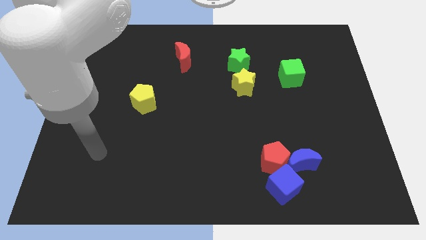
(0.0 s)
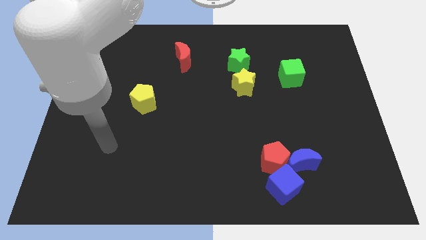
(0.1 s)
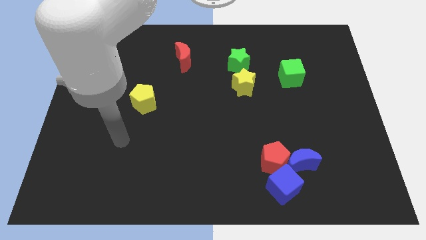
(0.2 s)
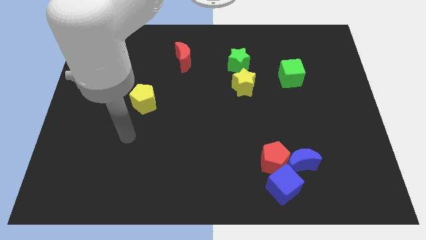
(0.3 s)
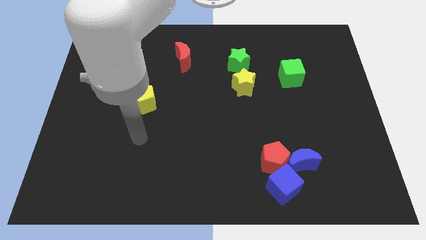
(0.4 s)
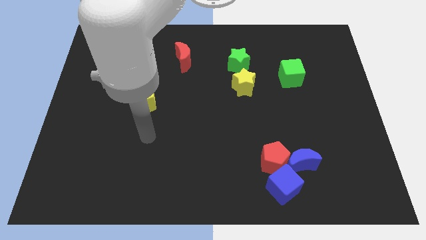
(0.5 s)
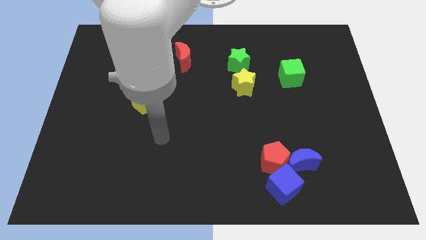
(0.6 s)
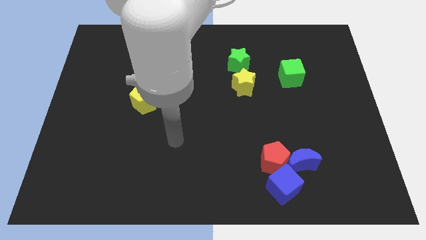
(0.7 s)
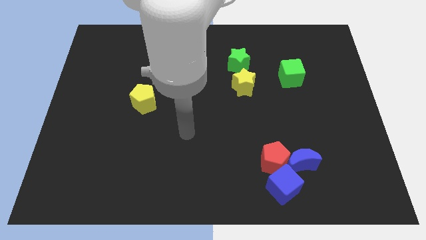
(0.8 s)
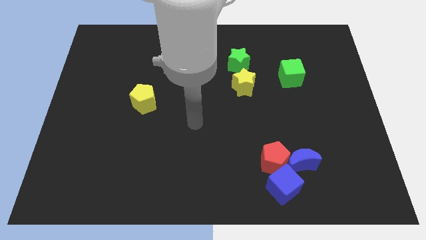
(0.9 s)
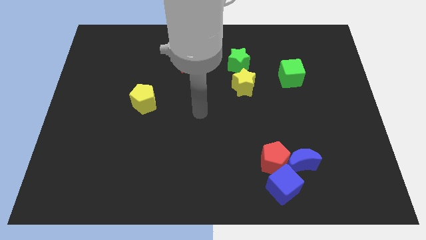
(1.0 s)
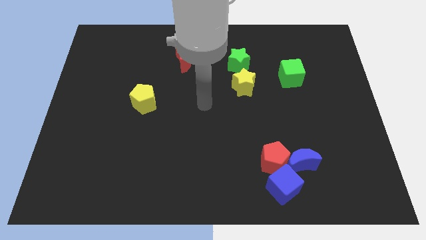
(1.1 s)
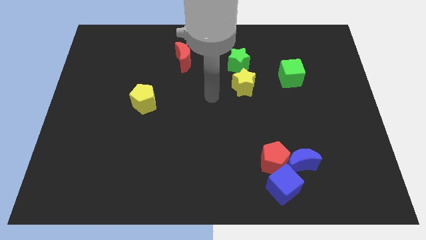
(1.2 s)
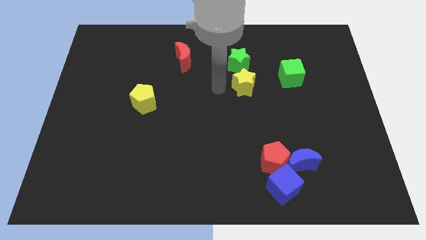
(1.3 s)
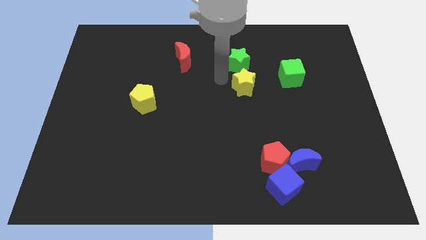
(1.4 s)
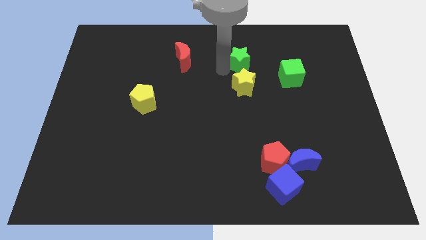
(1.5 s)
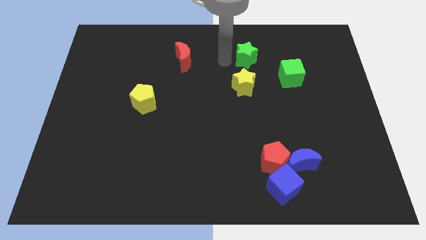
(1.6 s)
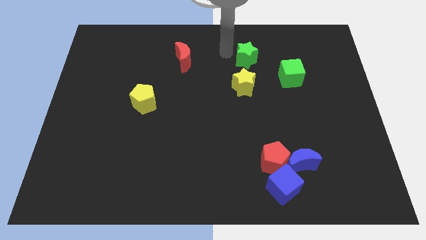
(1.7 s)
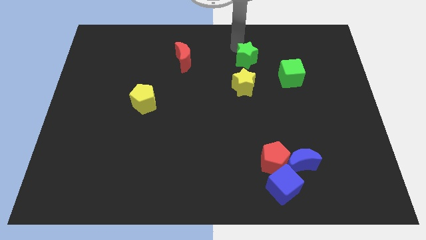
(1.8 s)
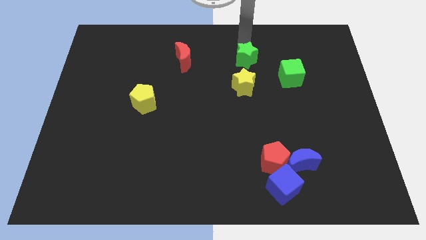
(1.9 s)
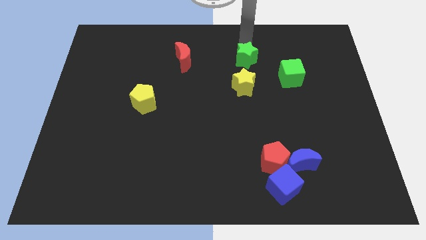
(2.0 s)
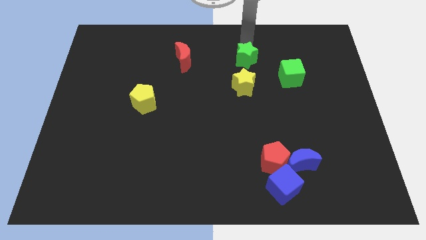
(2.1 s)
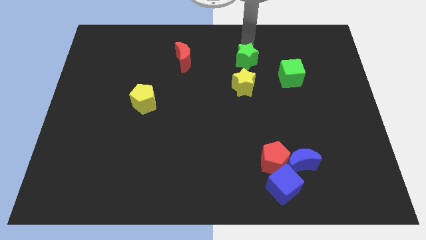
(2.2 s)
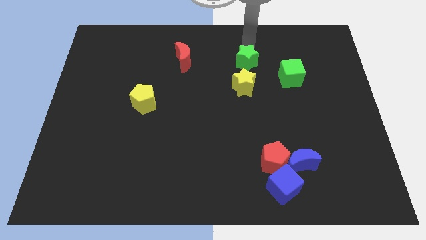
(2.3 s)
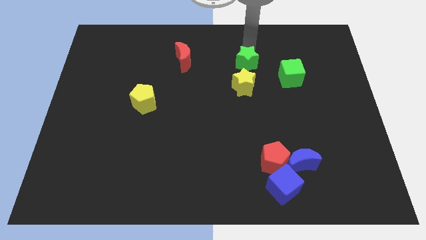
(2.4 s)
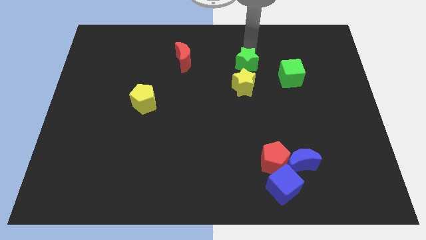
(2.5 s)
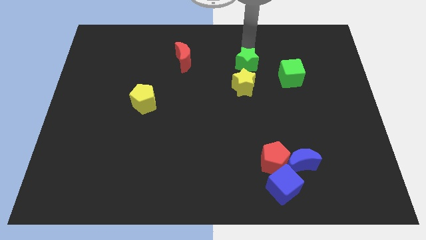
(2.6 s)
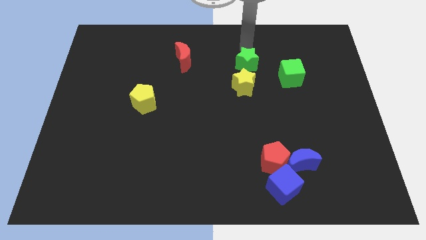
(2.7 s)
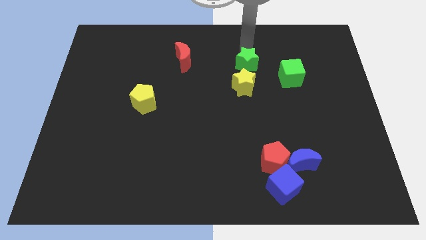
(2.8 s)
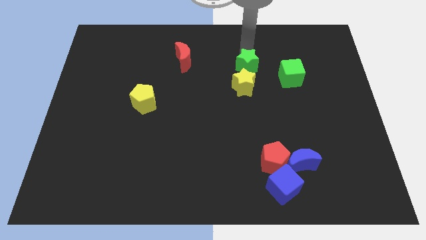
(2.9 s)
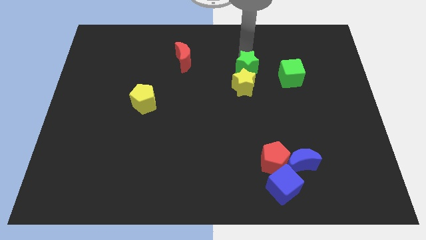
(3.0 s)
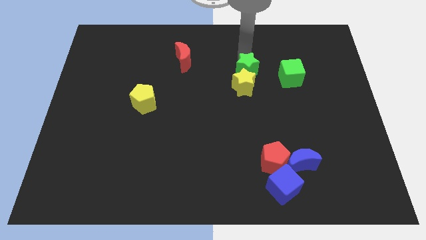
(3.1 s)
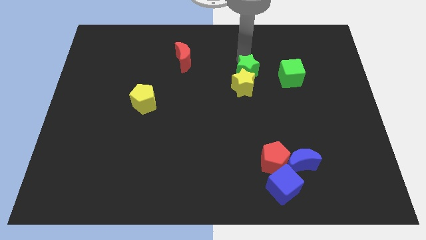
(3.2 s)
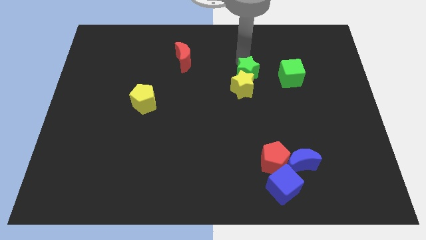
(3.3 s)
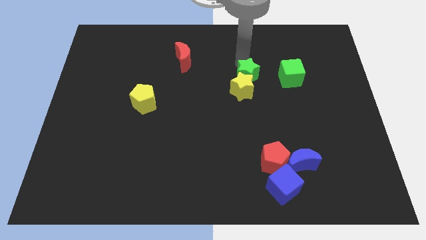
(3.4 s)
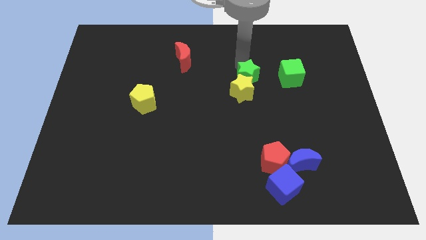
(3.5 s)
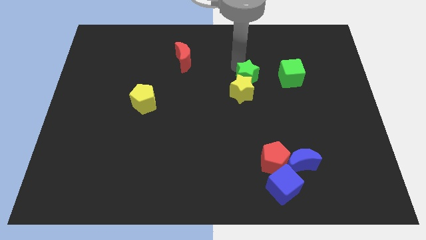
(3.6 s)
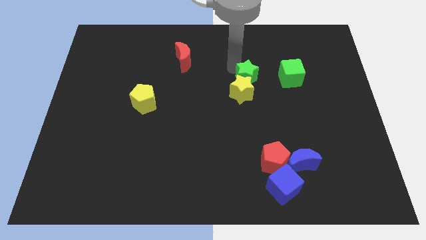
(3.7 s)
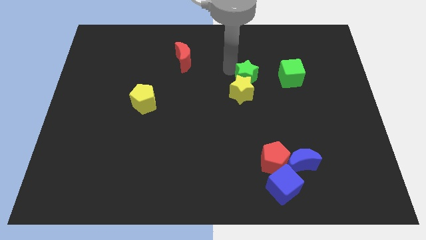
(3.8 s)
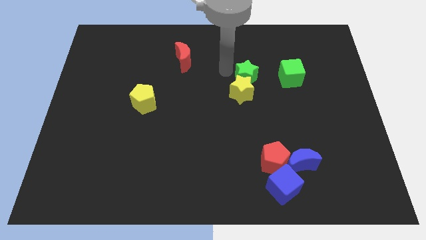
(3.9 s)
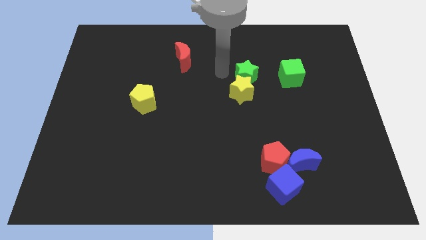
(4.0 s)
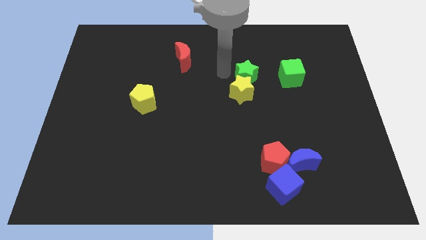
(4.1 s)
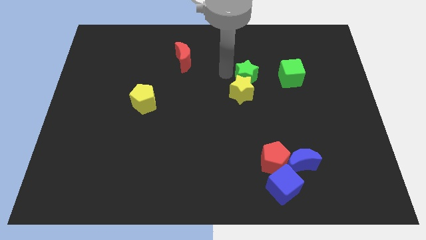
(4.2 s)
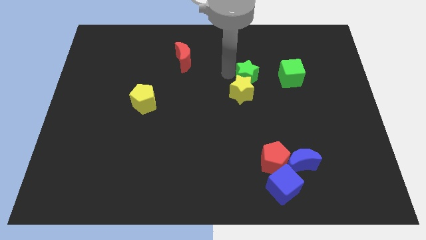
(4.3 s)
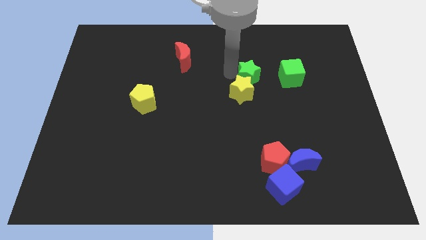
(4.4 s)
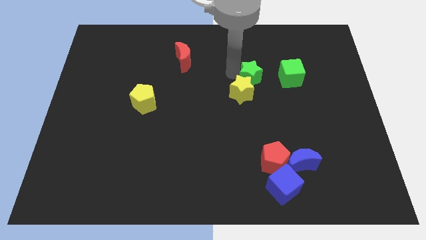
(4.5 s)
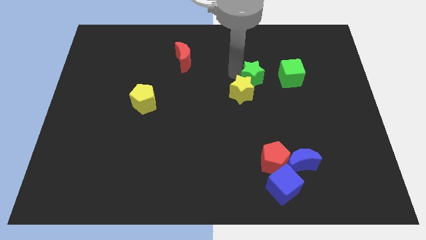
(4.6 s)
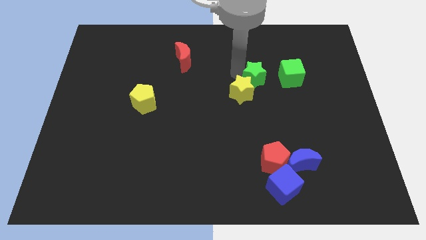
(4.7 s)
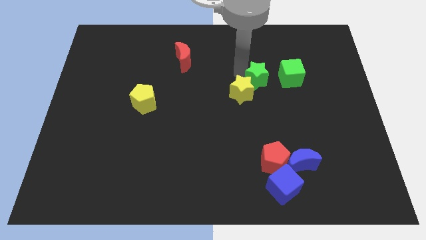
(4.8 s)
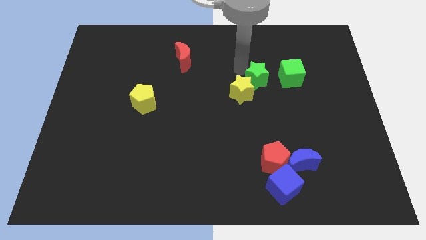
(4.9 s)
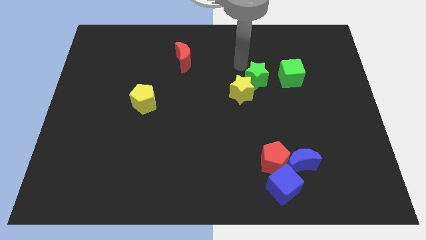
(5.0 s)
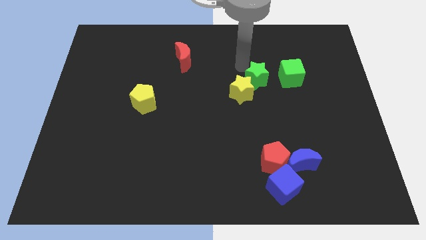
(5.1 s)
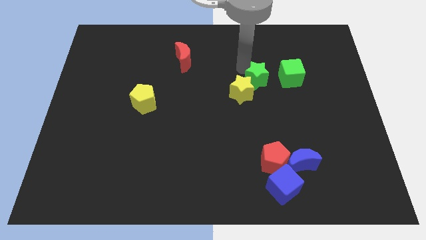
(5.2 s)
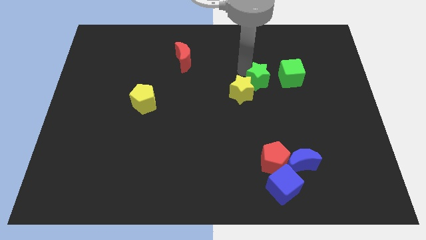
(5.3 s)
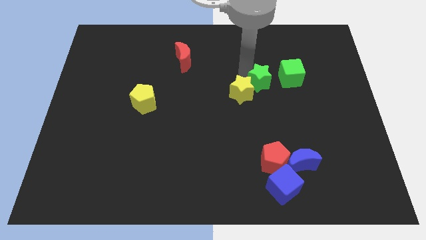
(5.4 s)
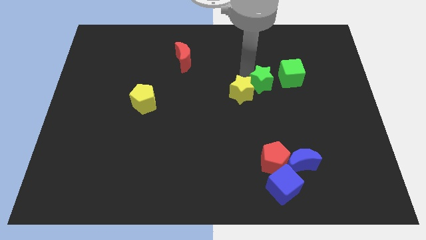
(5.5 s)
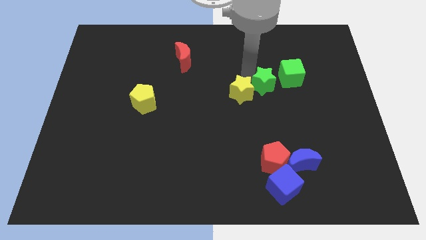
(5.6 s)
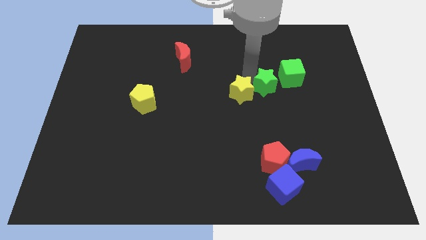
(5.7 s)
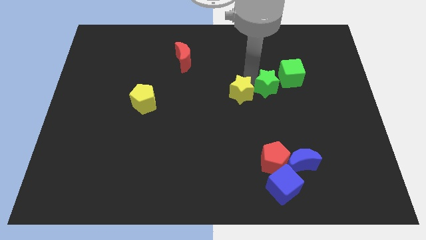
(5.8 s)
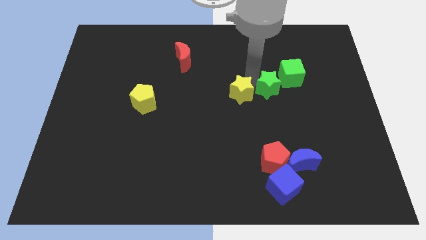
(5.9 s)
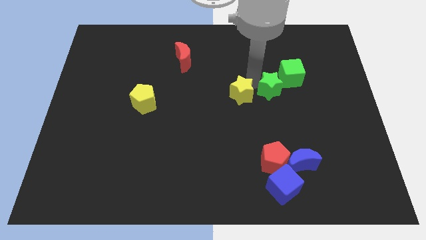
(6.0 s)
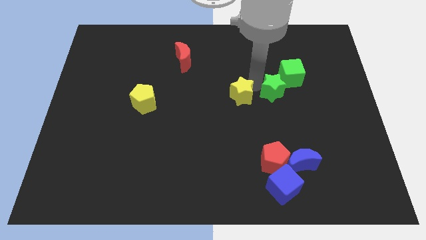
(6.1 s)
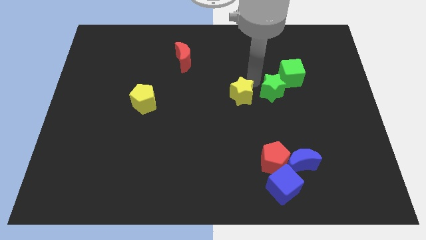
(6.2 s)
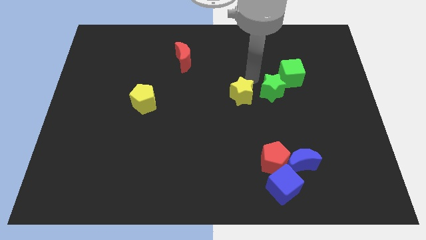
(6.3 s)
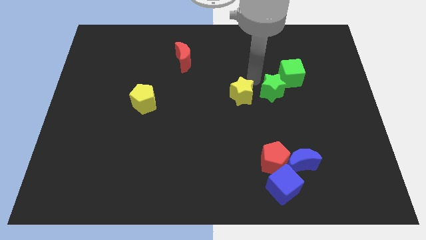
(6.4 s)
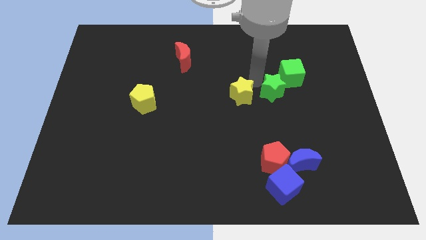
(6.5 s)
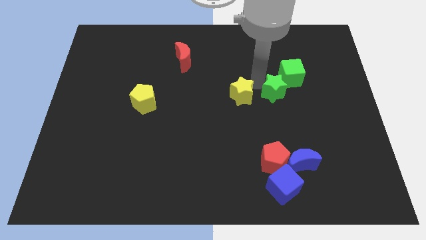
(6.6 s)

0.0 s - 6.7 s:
move the green star below the green cube

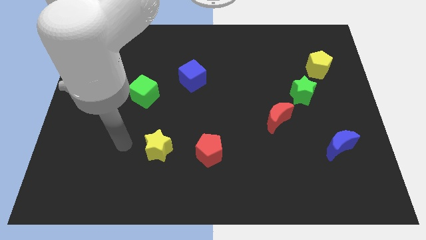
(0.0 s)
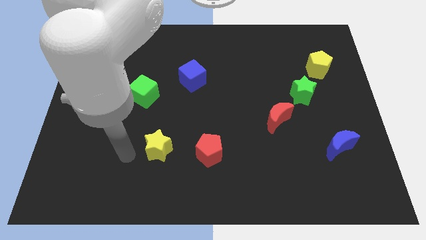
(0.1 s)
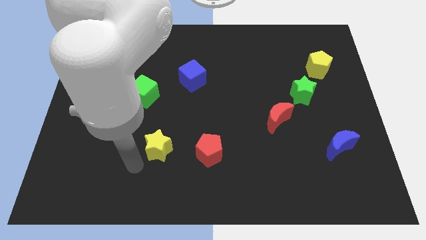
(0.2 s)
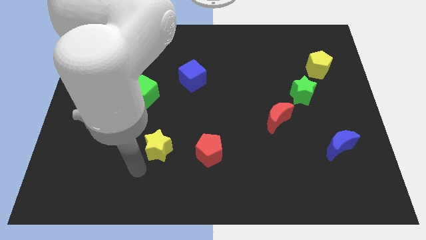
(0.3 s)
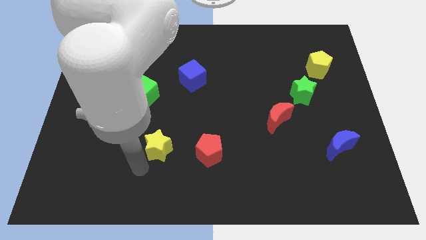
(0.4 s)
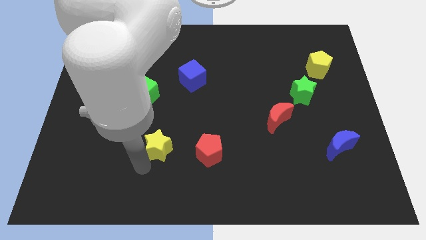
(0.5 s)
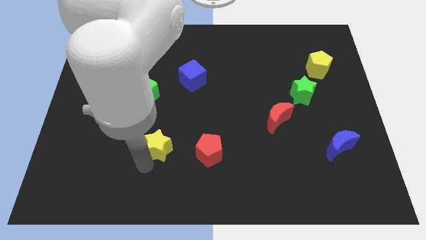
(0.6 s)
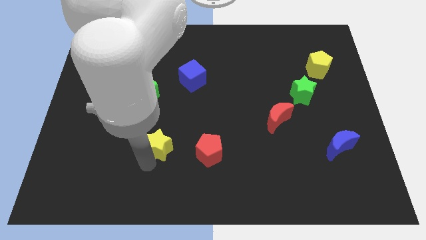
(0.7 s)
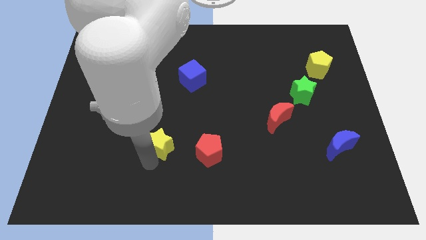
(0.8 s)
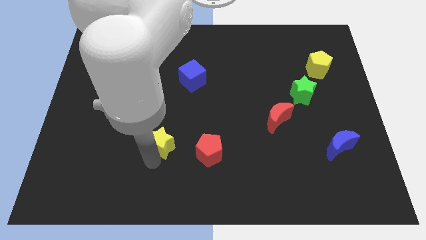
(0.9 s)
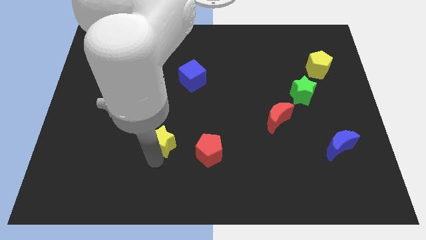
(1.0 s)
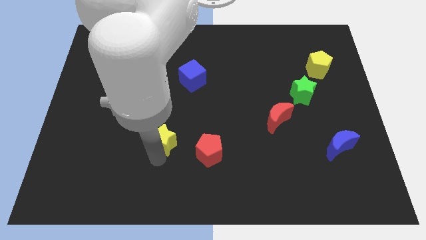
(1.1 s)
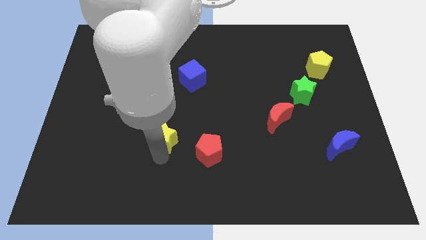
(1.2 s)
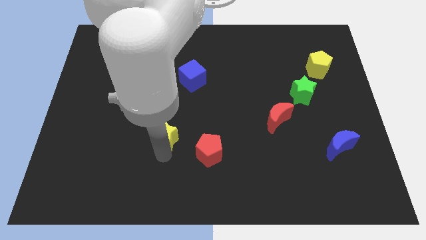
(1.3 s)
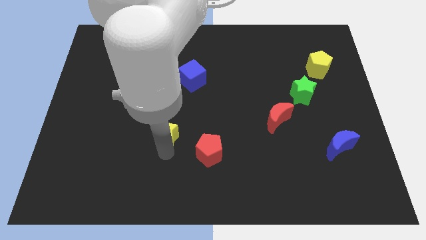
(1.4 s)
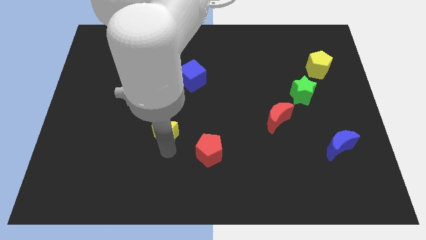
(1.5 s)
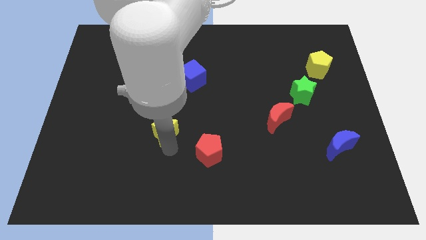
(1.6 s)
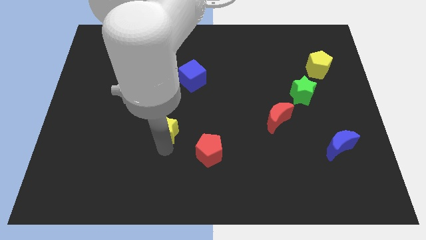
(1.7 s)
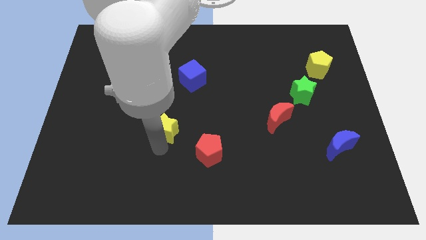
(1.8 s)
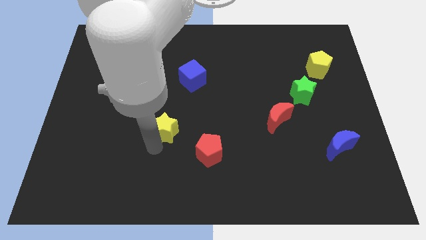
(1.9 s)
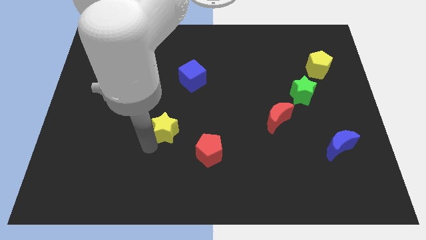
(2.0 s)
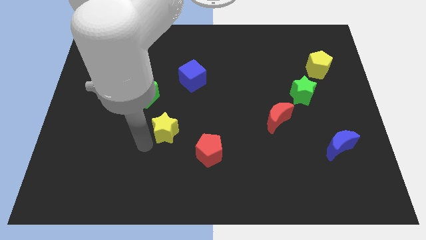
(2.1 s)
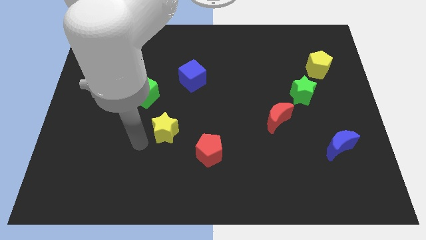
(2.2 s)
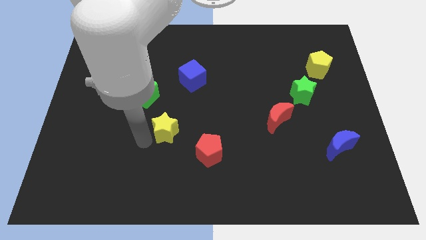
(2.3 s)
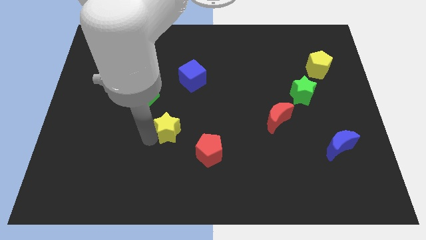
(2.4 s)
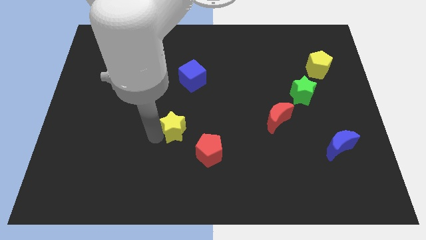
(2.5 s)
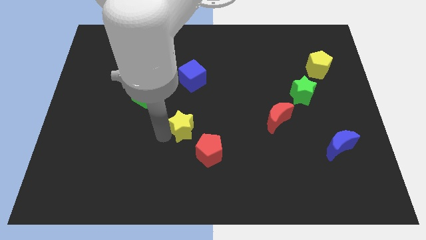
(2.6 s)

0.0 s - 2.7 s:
move the yellow star below the blue cube
